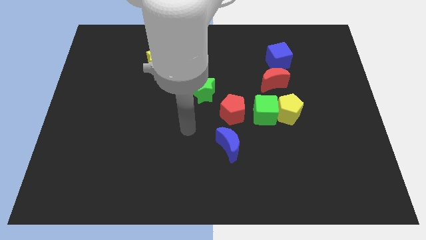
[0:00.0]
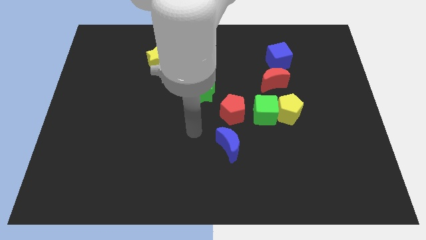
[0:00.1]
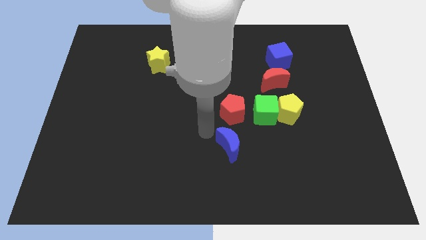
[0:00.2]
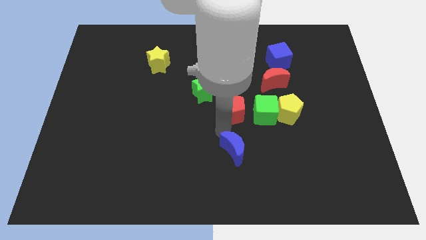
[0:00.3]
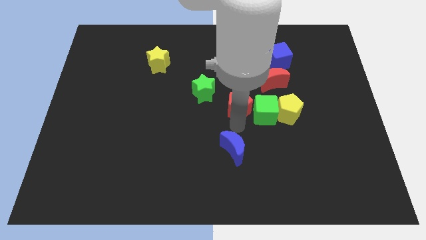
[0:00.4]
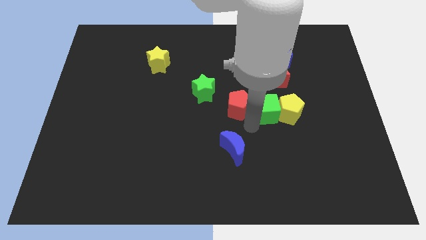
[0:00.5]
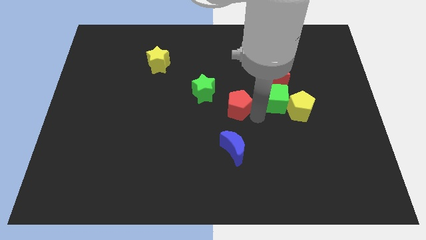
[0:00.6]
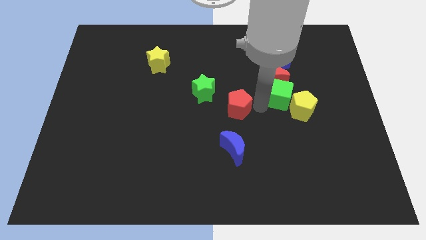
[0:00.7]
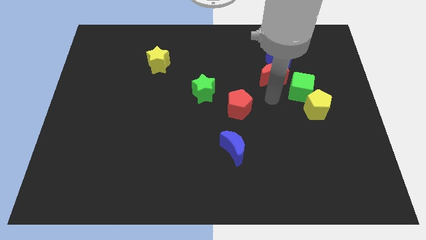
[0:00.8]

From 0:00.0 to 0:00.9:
pull the yellow pentagon apart from the green cube and red moon

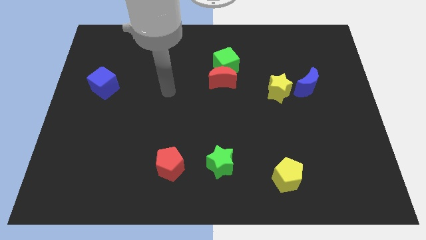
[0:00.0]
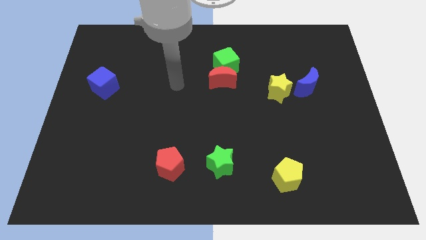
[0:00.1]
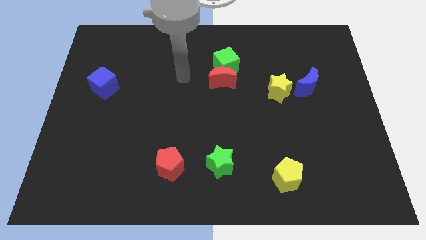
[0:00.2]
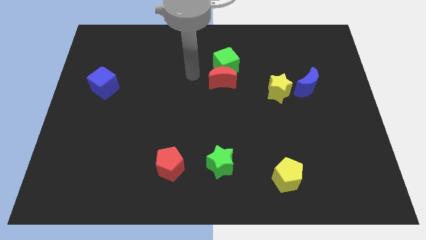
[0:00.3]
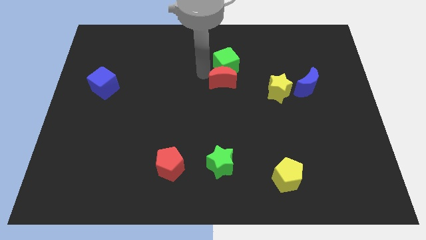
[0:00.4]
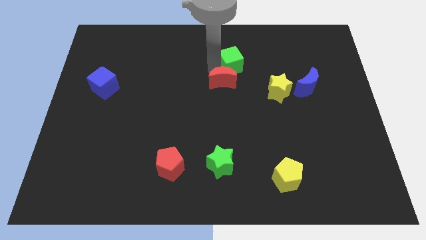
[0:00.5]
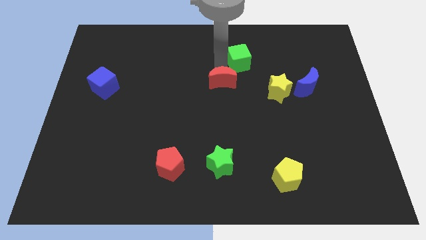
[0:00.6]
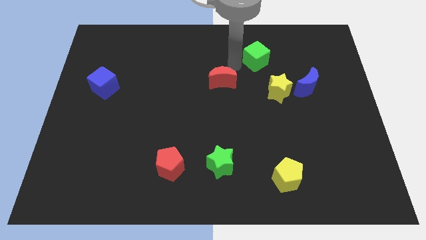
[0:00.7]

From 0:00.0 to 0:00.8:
pull the red moon apart from the green cube

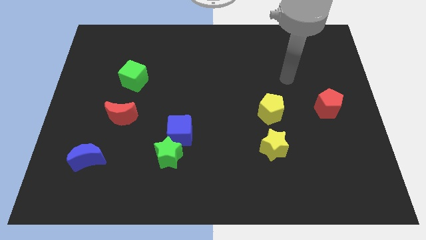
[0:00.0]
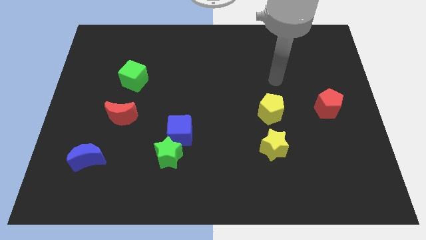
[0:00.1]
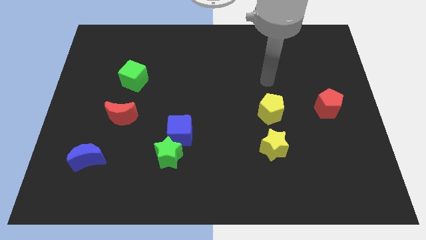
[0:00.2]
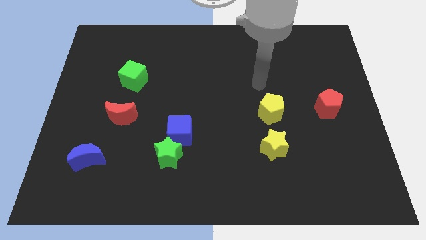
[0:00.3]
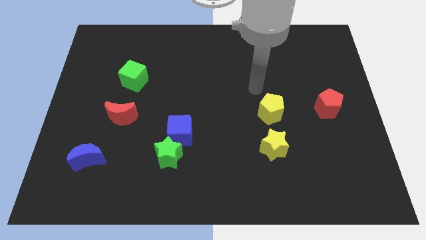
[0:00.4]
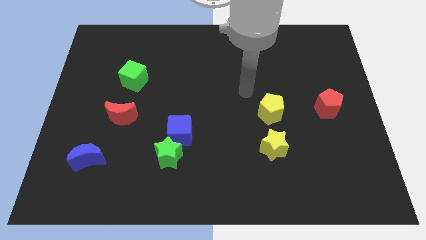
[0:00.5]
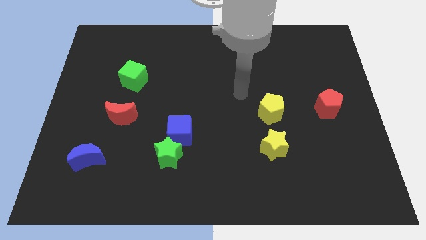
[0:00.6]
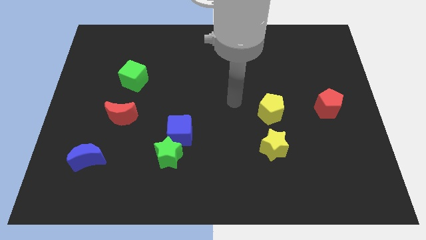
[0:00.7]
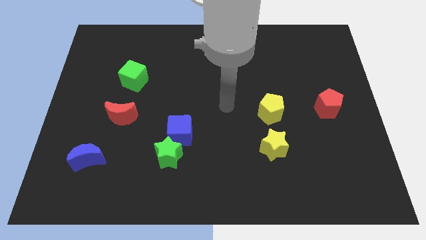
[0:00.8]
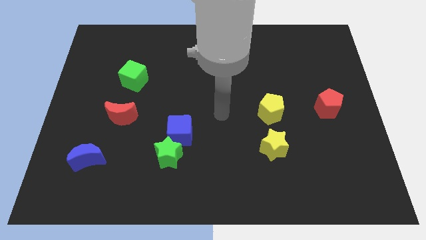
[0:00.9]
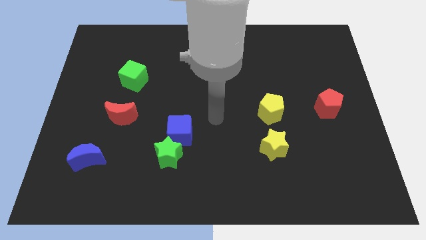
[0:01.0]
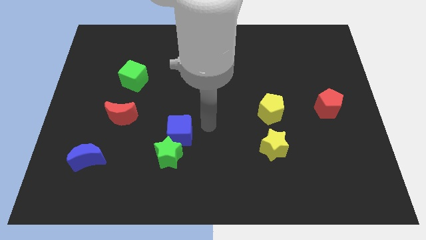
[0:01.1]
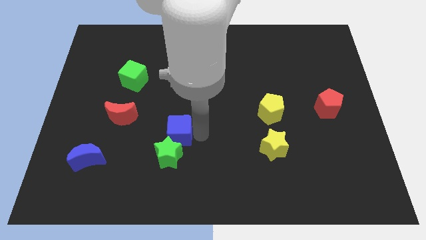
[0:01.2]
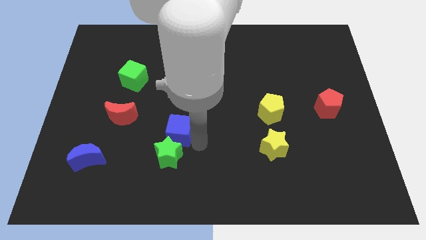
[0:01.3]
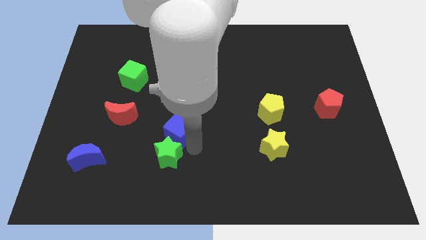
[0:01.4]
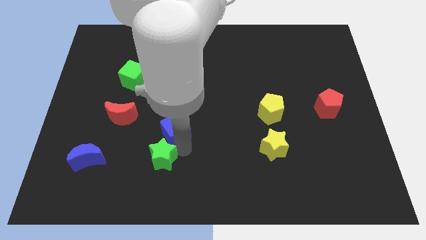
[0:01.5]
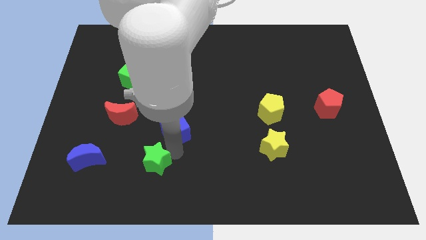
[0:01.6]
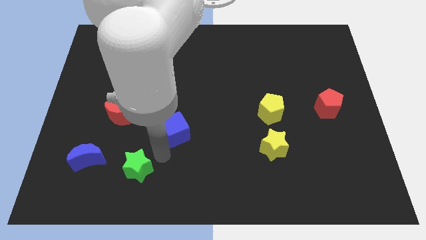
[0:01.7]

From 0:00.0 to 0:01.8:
move the blue cube away from the green star

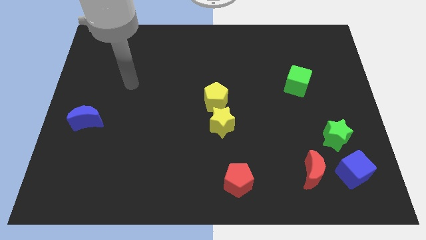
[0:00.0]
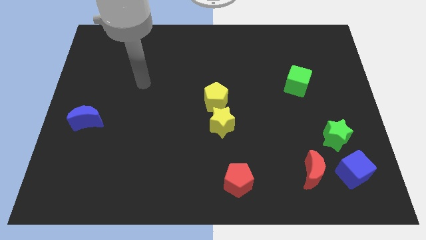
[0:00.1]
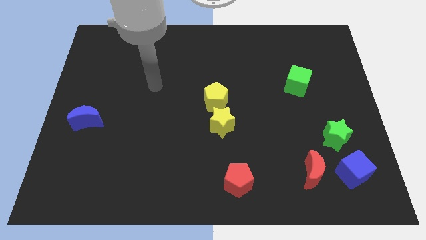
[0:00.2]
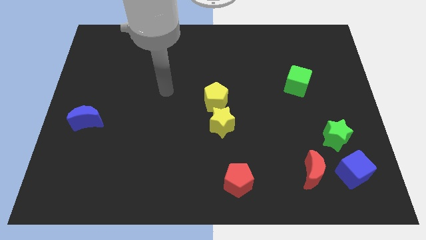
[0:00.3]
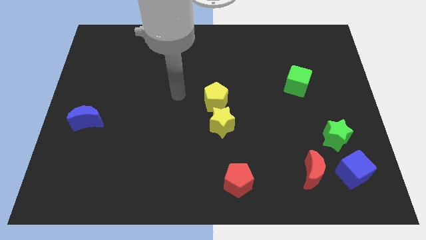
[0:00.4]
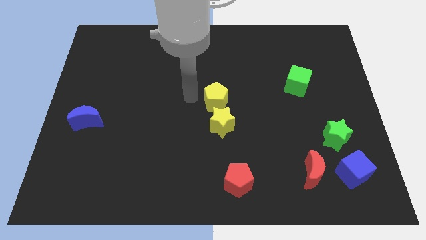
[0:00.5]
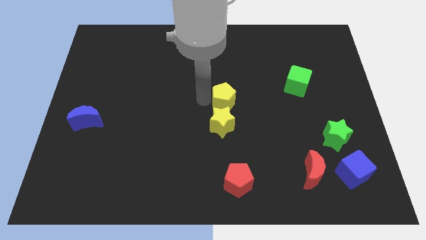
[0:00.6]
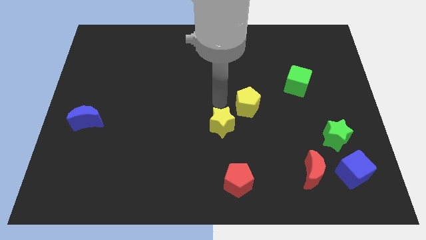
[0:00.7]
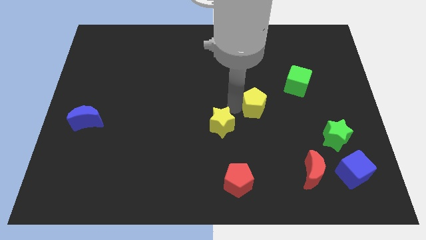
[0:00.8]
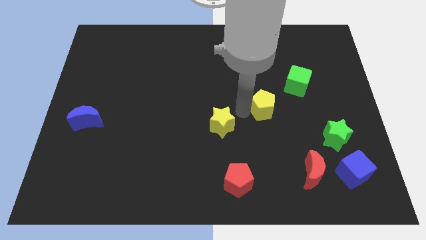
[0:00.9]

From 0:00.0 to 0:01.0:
separate the yellow star from the yellow pentagon

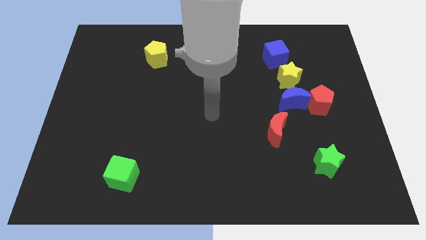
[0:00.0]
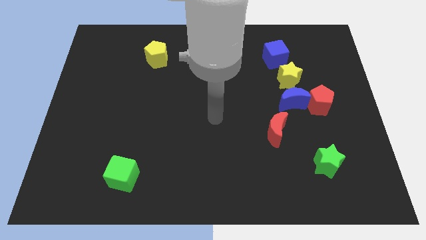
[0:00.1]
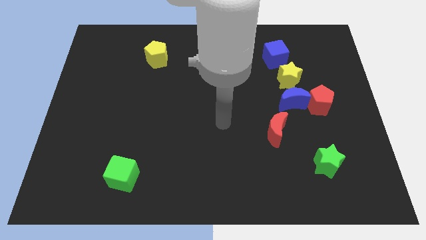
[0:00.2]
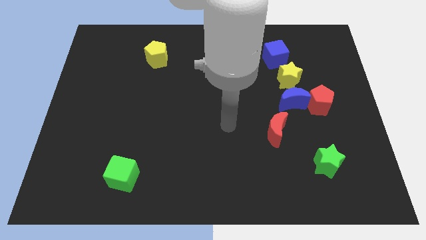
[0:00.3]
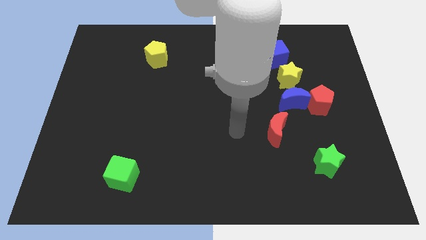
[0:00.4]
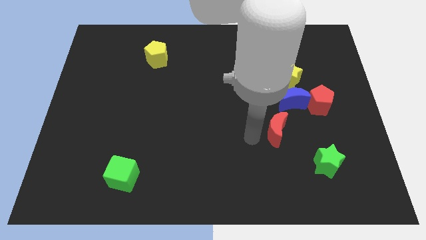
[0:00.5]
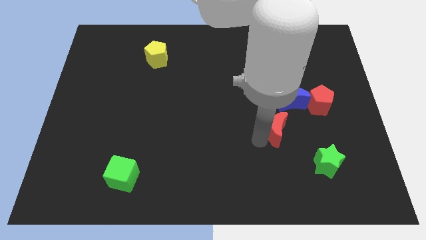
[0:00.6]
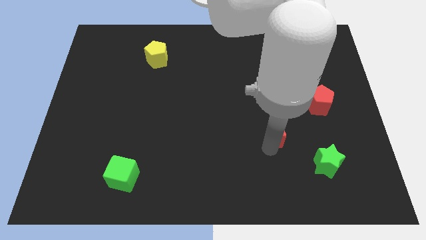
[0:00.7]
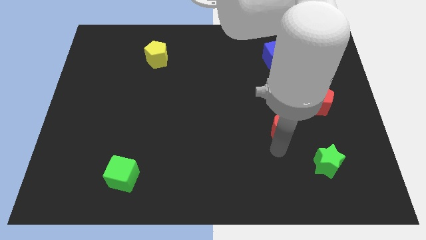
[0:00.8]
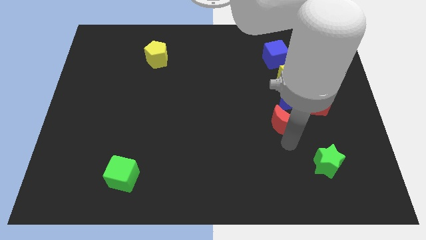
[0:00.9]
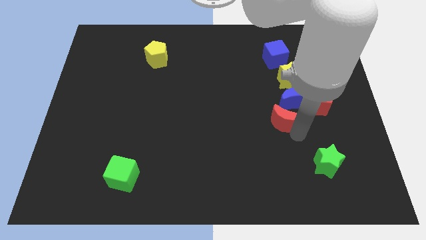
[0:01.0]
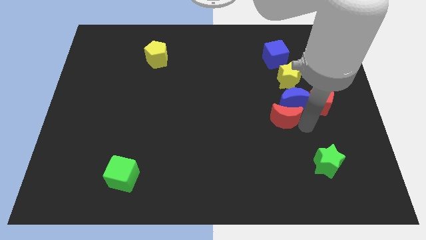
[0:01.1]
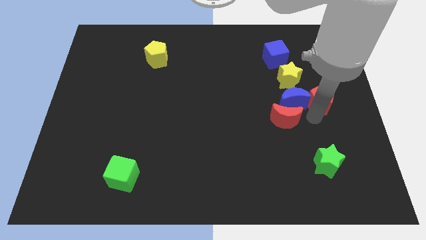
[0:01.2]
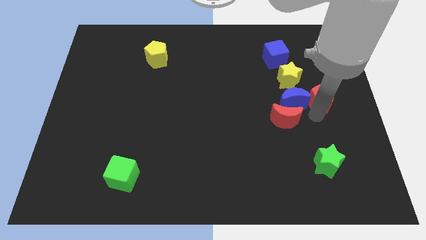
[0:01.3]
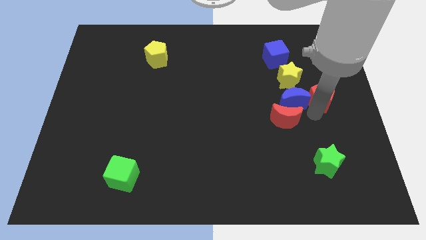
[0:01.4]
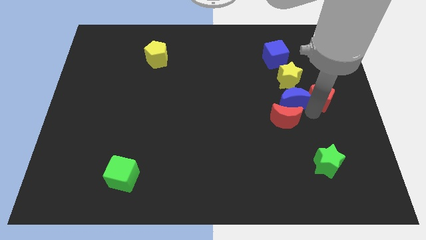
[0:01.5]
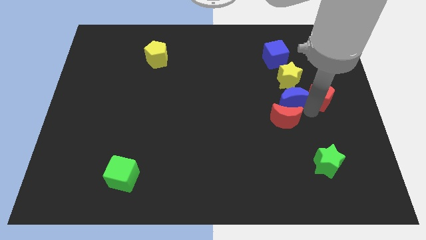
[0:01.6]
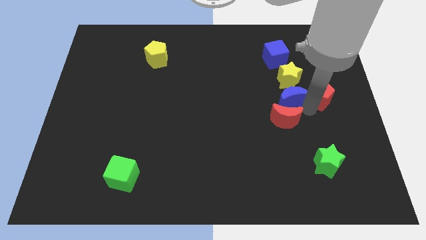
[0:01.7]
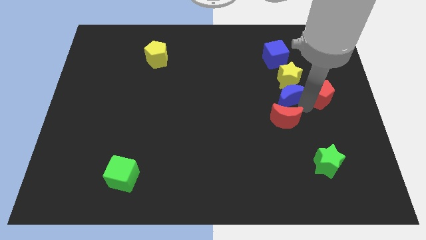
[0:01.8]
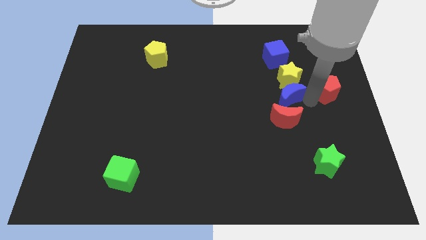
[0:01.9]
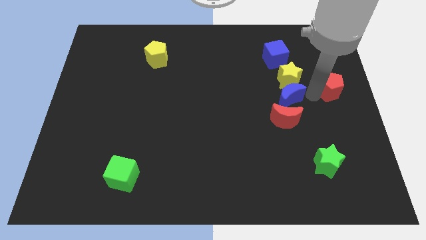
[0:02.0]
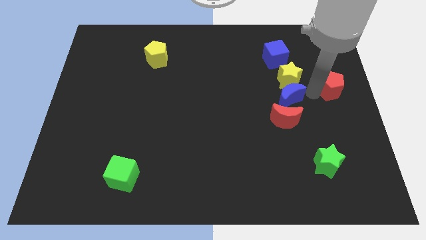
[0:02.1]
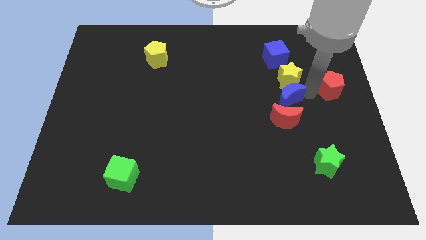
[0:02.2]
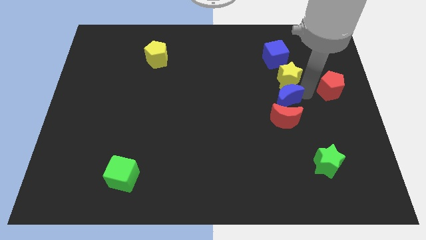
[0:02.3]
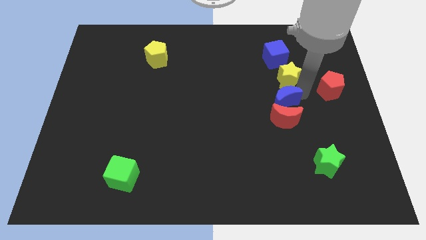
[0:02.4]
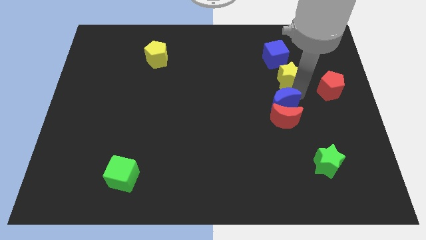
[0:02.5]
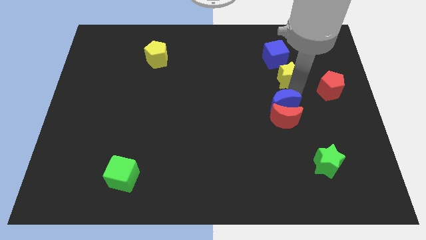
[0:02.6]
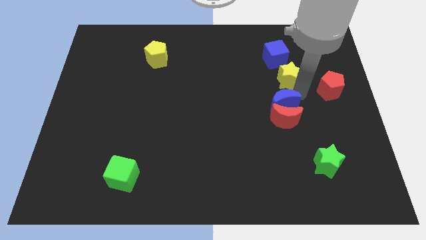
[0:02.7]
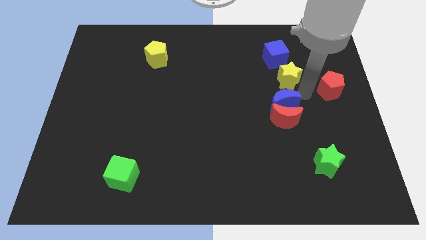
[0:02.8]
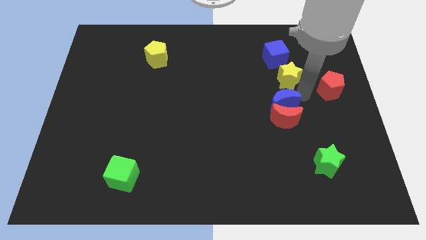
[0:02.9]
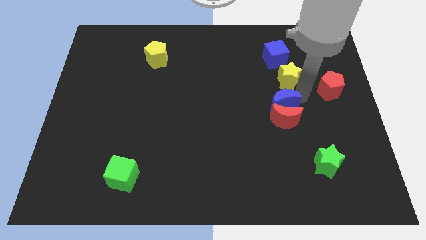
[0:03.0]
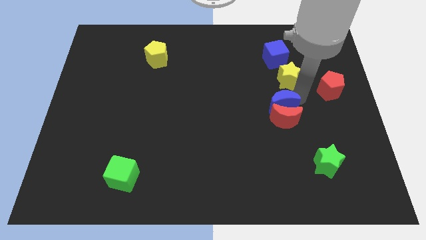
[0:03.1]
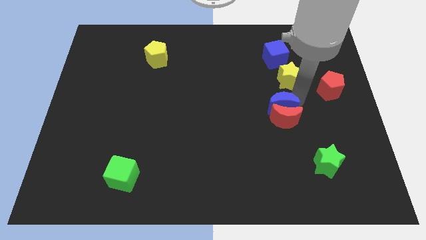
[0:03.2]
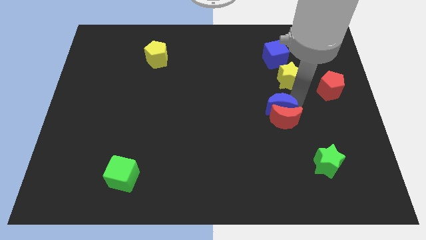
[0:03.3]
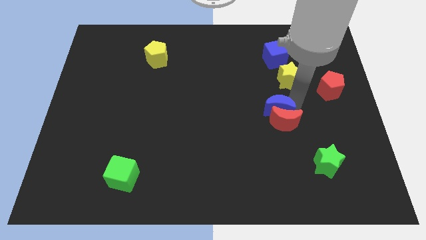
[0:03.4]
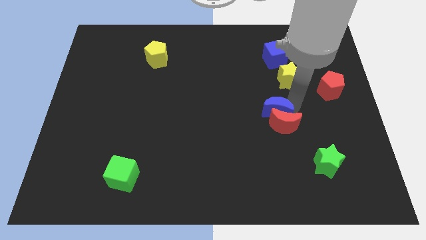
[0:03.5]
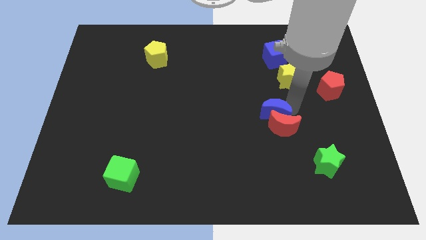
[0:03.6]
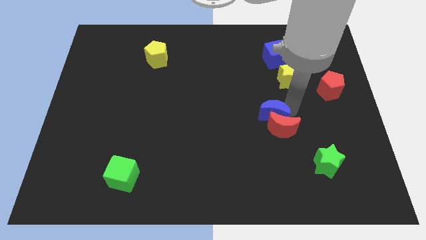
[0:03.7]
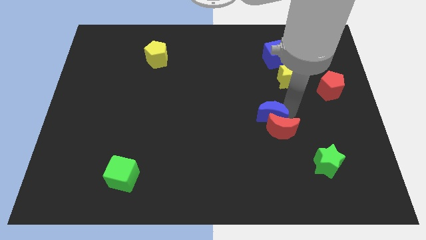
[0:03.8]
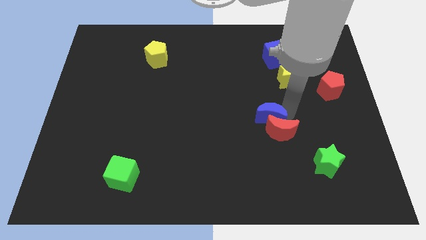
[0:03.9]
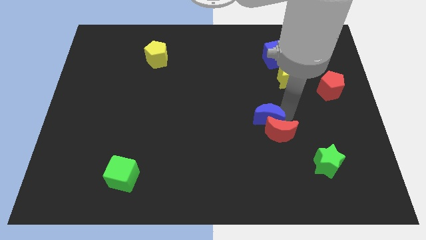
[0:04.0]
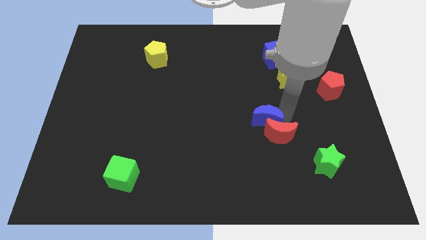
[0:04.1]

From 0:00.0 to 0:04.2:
pull the blue moon apart from the group of blocks

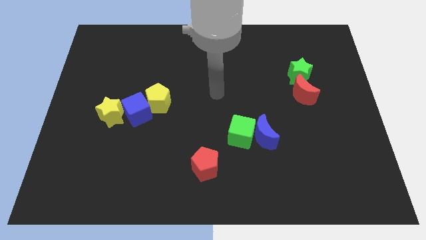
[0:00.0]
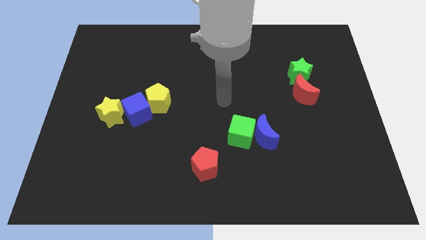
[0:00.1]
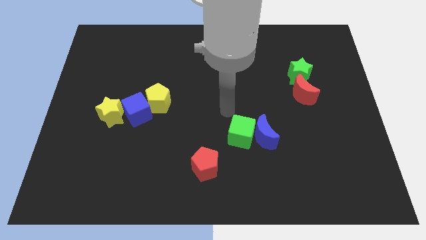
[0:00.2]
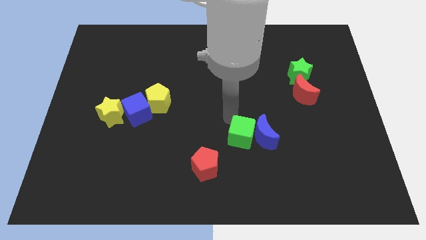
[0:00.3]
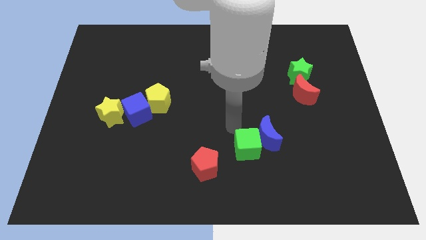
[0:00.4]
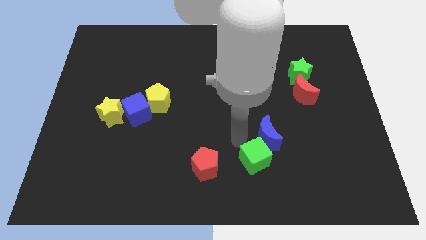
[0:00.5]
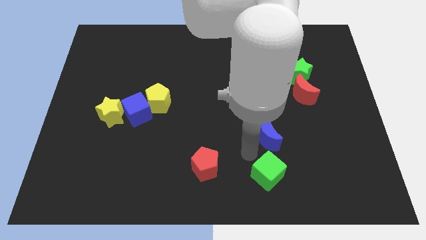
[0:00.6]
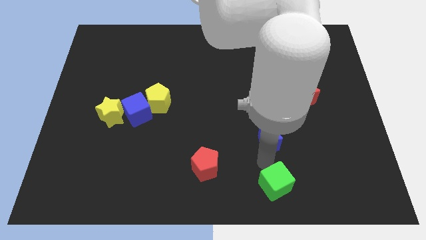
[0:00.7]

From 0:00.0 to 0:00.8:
separate the blue moon from the green cube
